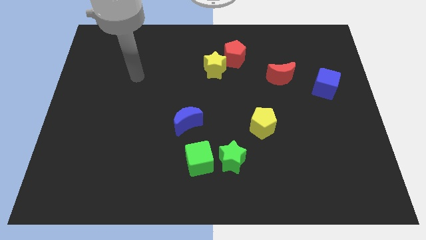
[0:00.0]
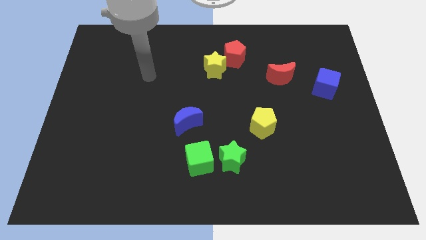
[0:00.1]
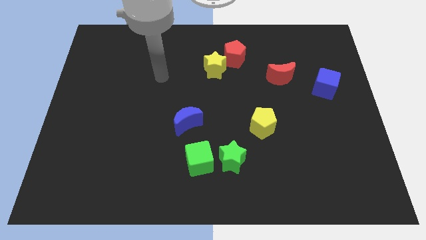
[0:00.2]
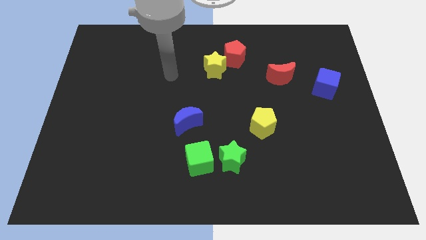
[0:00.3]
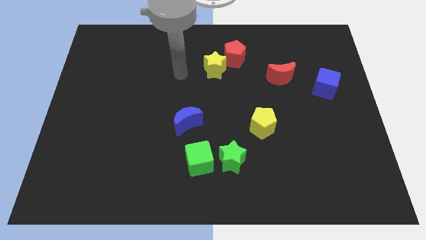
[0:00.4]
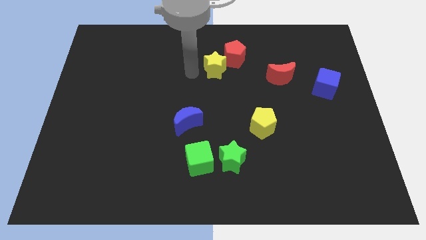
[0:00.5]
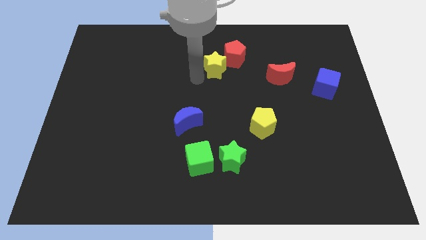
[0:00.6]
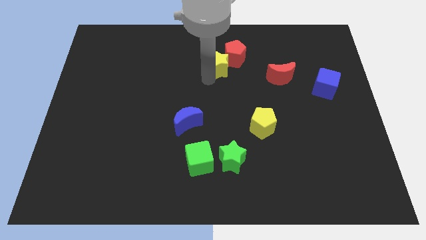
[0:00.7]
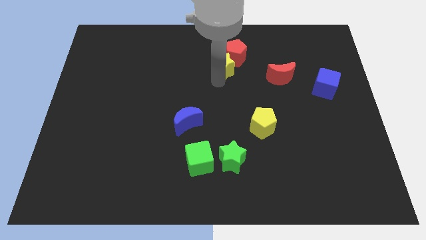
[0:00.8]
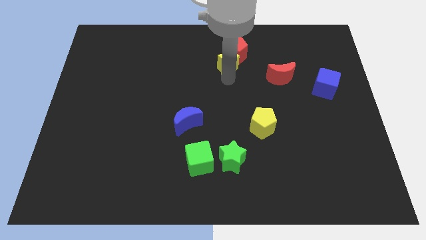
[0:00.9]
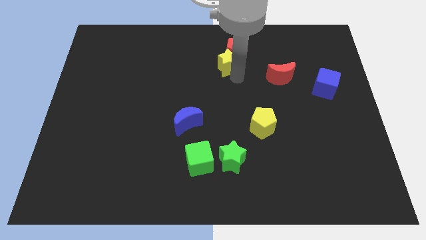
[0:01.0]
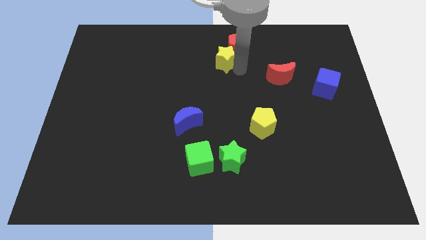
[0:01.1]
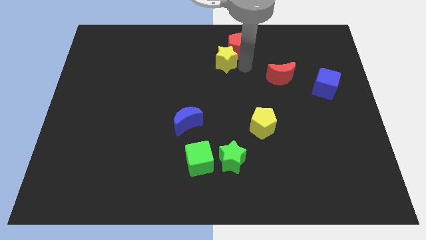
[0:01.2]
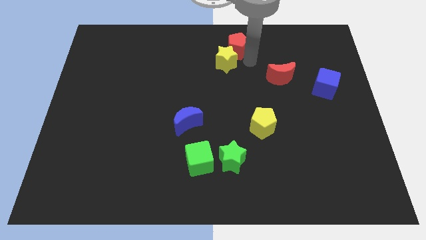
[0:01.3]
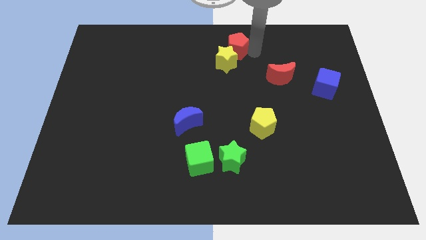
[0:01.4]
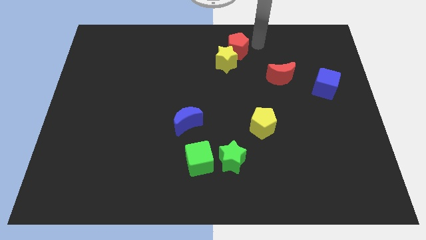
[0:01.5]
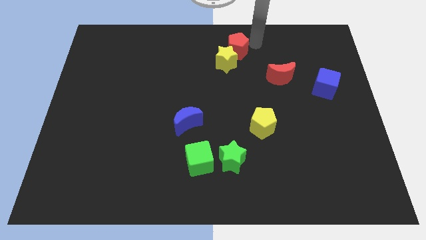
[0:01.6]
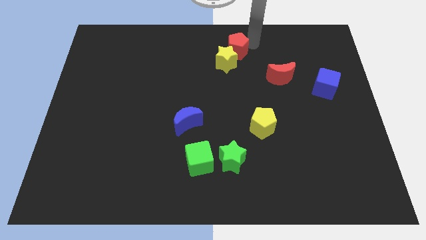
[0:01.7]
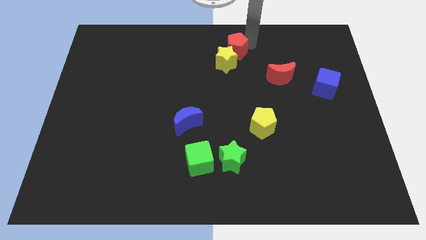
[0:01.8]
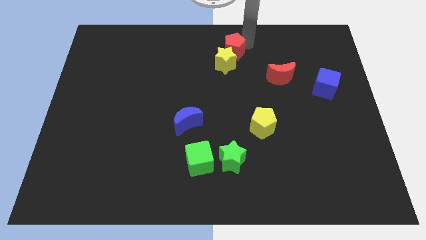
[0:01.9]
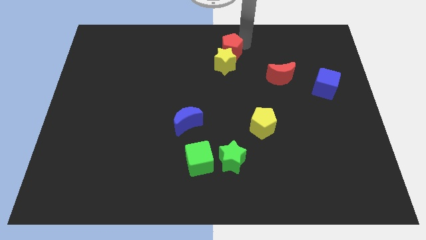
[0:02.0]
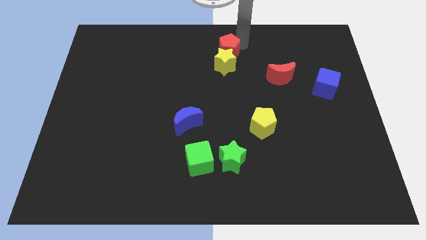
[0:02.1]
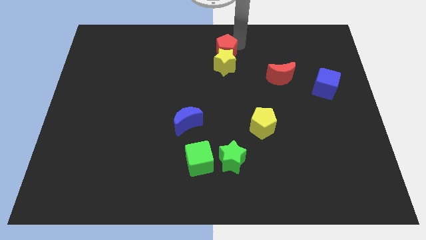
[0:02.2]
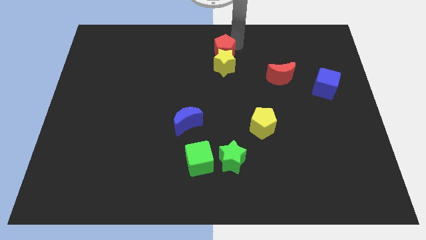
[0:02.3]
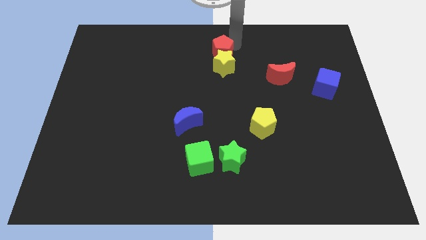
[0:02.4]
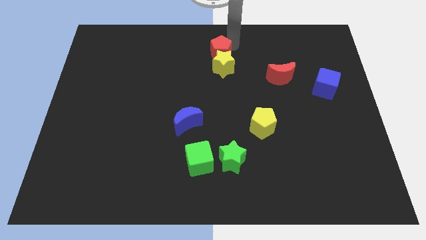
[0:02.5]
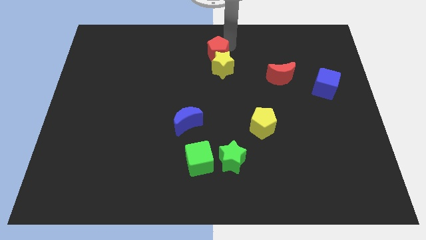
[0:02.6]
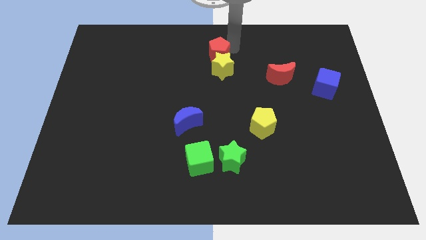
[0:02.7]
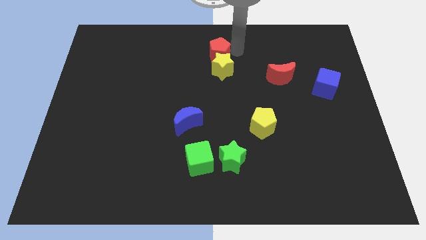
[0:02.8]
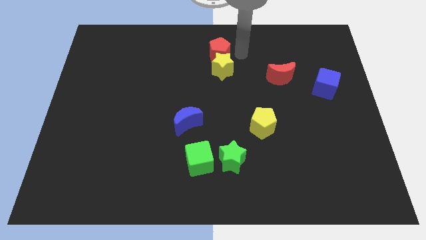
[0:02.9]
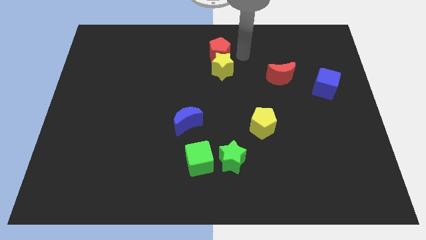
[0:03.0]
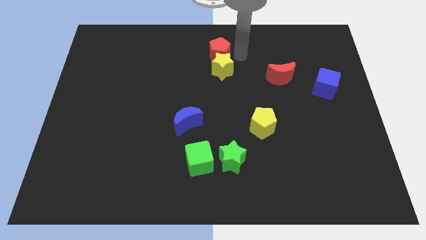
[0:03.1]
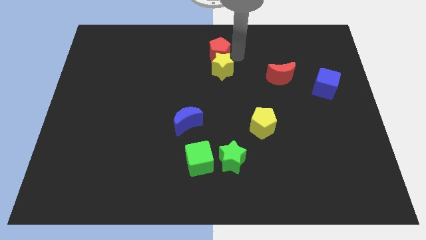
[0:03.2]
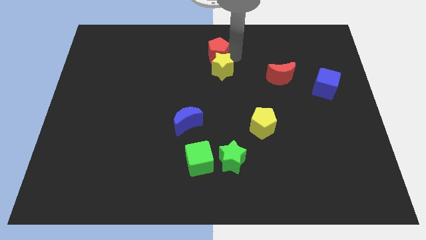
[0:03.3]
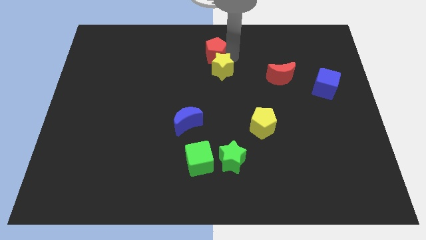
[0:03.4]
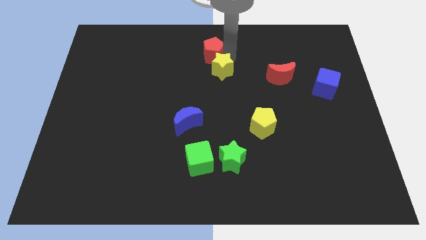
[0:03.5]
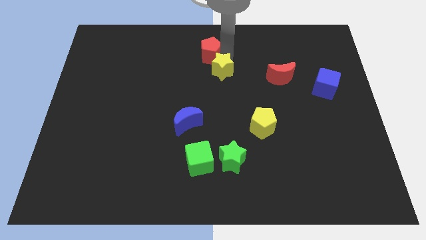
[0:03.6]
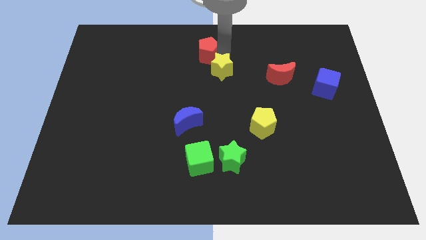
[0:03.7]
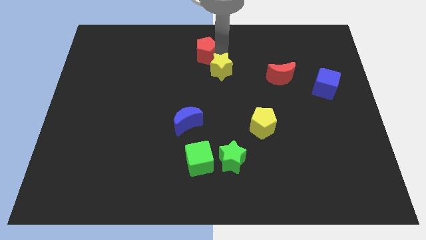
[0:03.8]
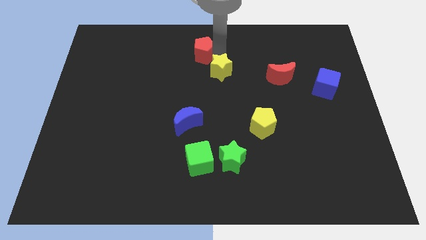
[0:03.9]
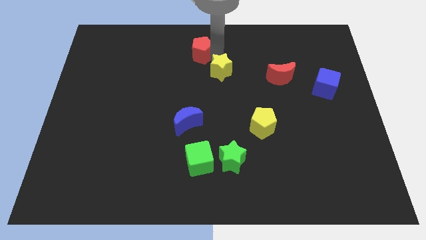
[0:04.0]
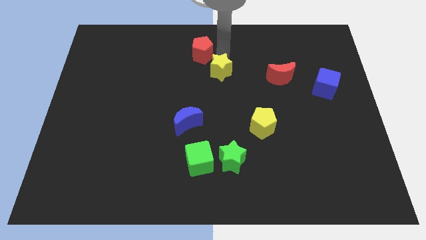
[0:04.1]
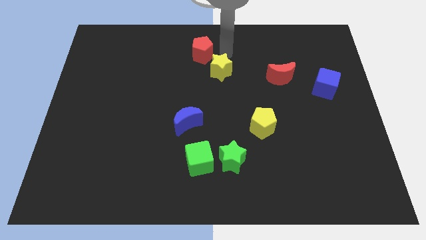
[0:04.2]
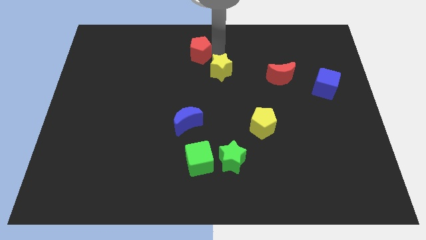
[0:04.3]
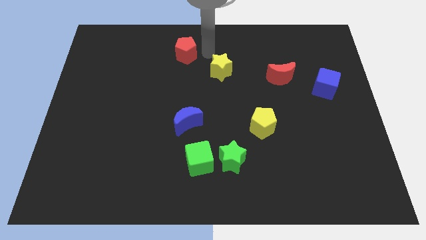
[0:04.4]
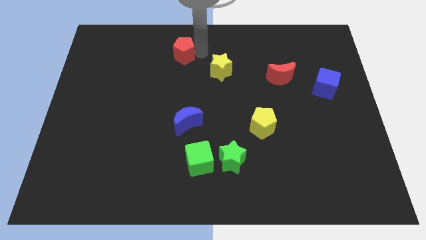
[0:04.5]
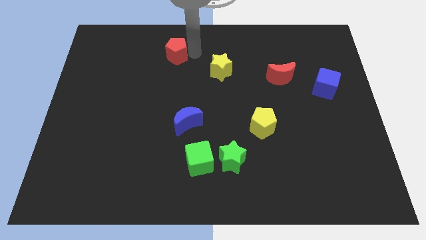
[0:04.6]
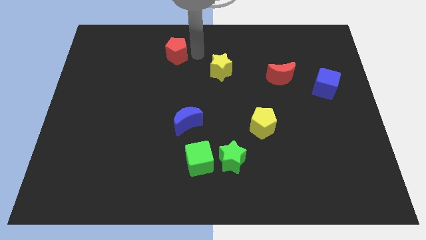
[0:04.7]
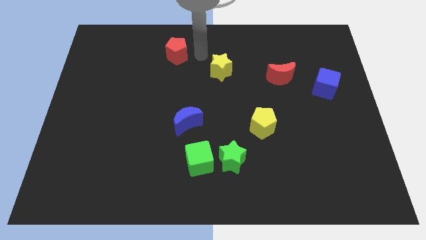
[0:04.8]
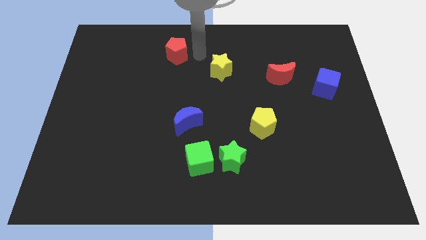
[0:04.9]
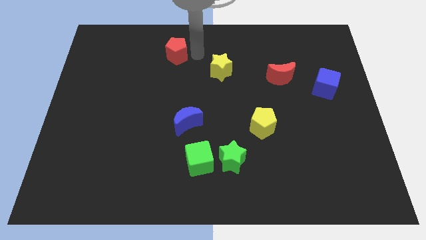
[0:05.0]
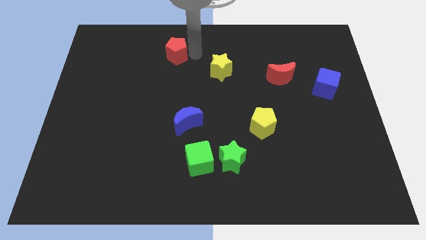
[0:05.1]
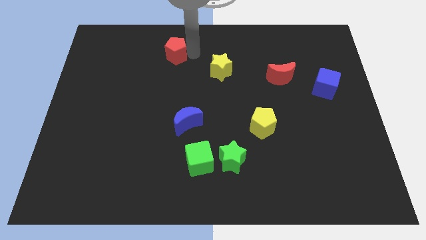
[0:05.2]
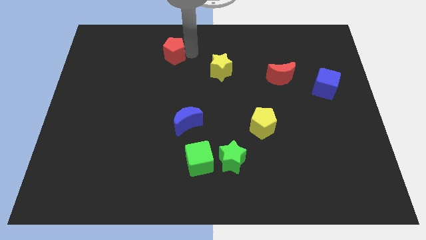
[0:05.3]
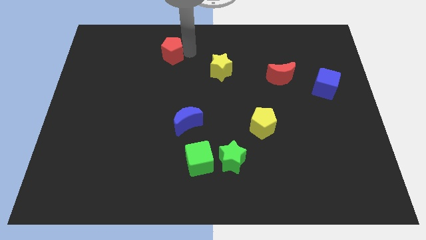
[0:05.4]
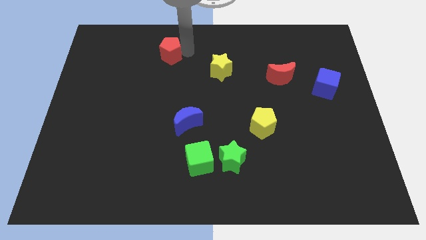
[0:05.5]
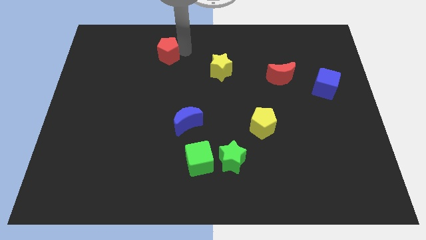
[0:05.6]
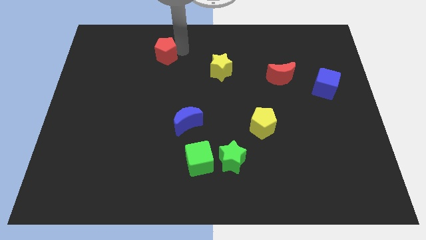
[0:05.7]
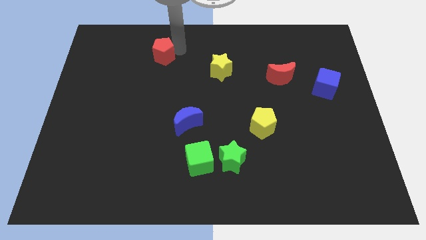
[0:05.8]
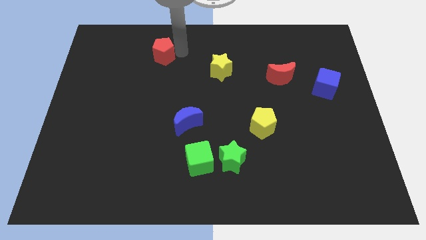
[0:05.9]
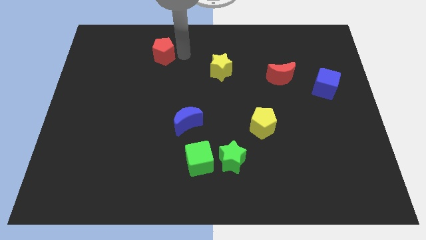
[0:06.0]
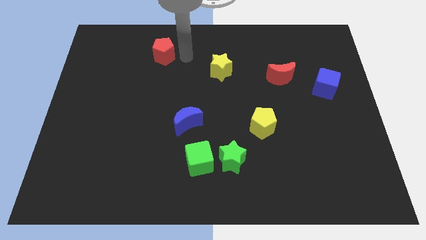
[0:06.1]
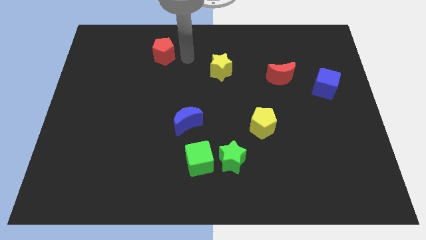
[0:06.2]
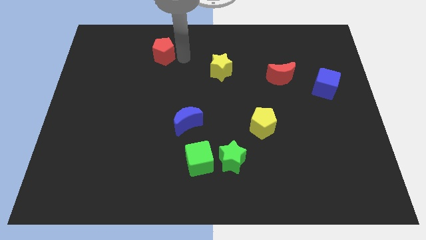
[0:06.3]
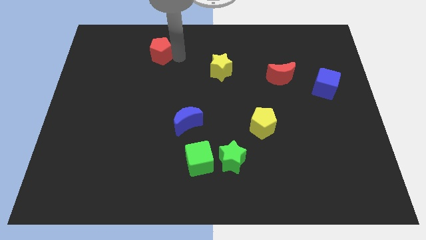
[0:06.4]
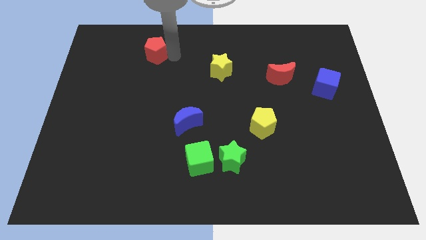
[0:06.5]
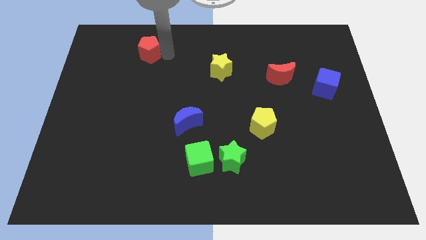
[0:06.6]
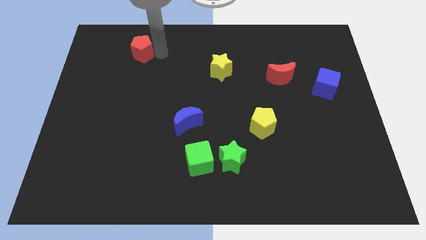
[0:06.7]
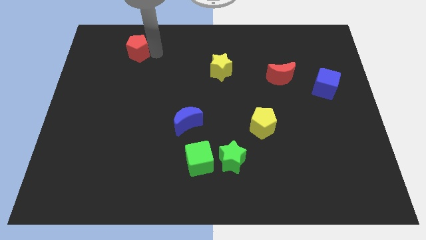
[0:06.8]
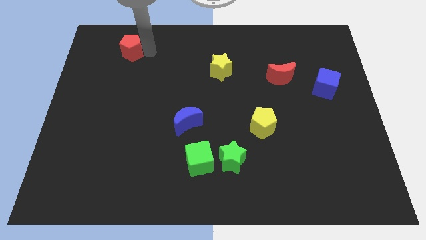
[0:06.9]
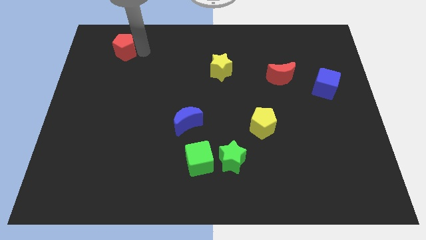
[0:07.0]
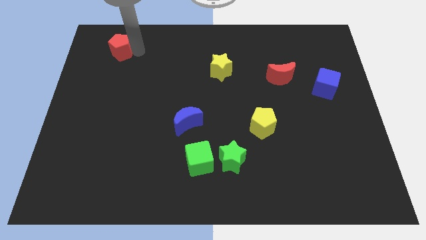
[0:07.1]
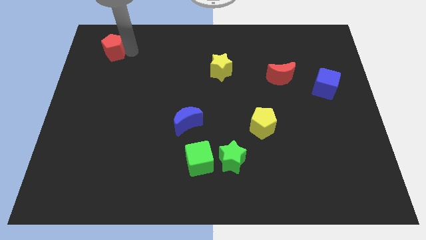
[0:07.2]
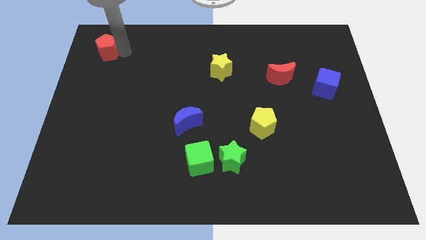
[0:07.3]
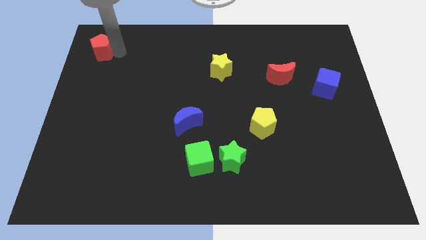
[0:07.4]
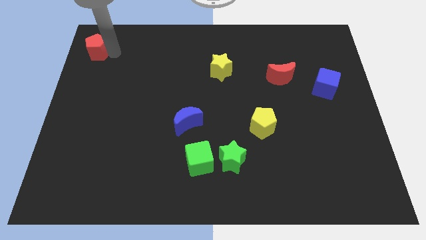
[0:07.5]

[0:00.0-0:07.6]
put the red pentagon to the top left corner
